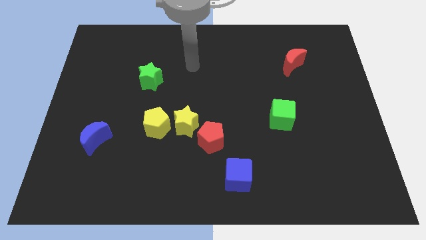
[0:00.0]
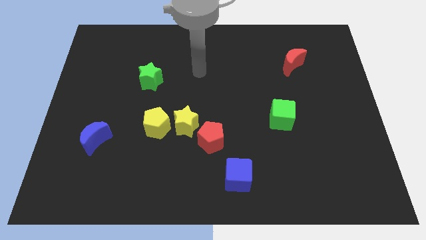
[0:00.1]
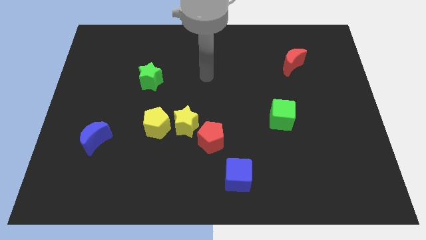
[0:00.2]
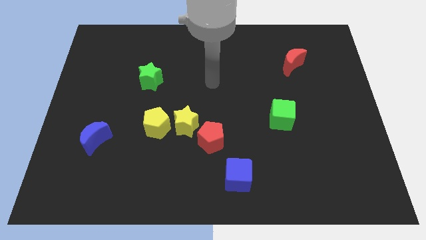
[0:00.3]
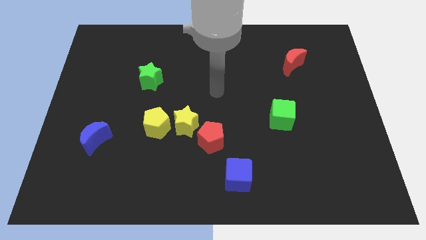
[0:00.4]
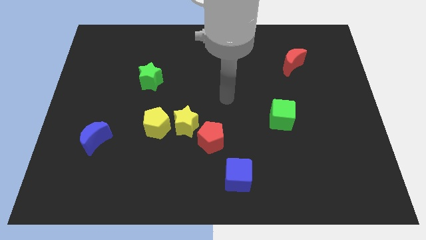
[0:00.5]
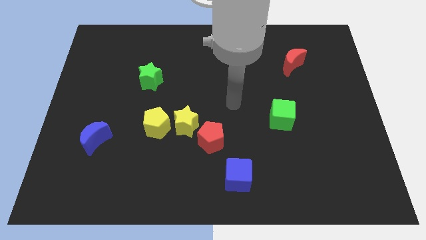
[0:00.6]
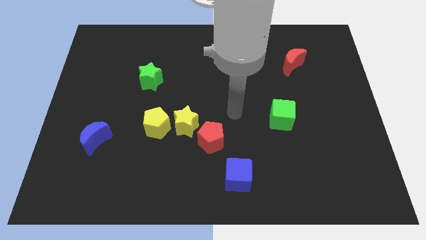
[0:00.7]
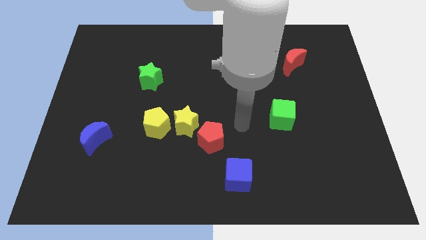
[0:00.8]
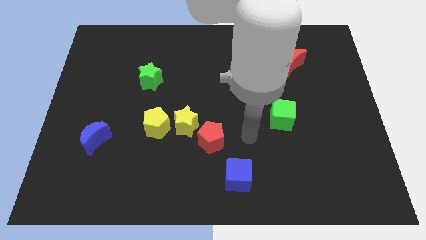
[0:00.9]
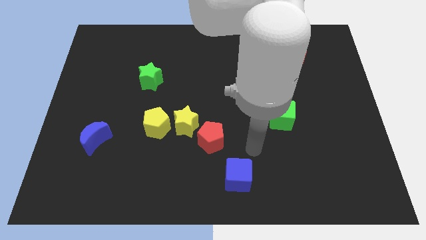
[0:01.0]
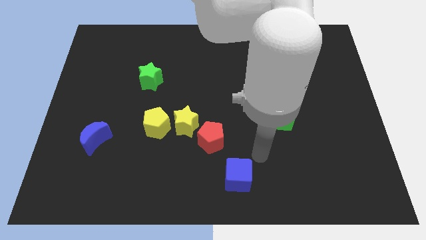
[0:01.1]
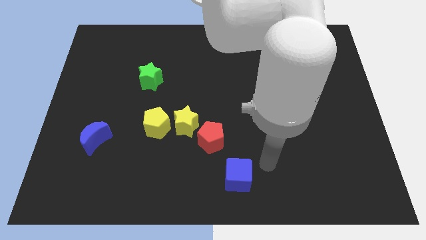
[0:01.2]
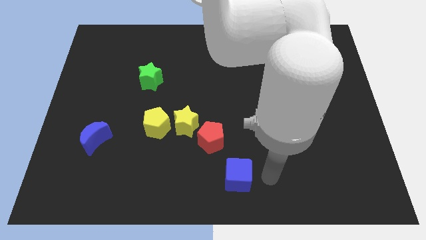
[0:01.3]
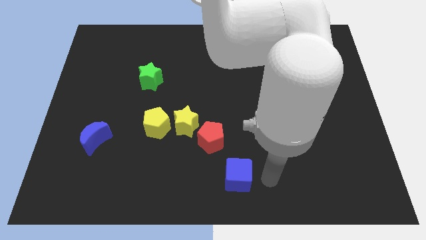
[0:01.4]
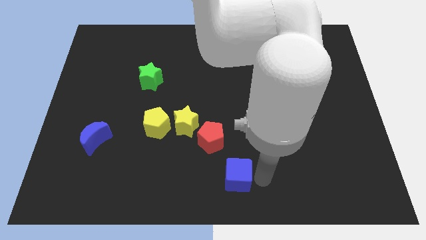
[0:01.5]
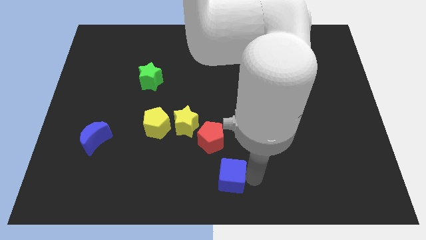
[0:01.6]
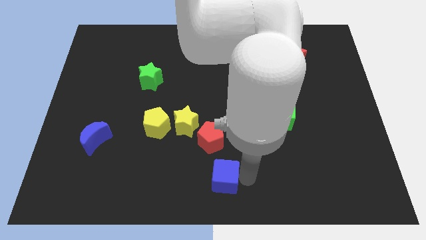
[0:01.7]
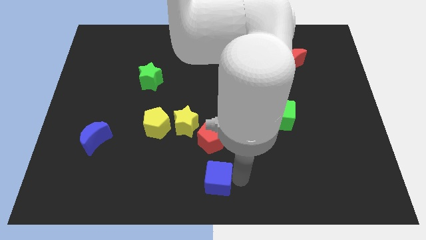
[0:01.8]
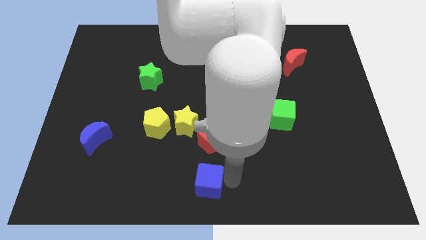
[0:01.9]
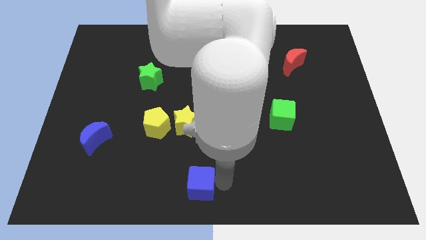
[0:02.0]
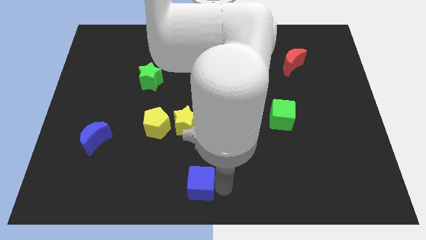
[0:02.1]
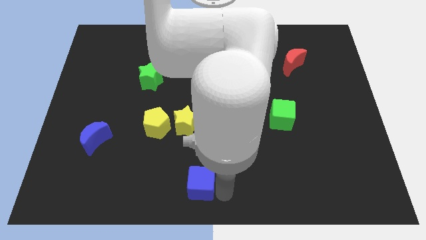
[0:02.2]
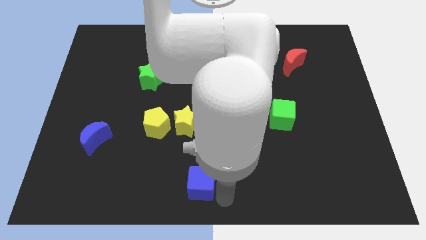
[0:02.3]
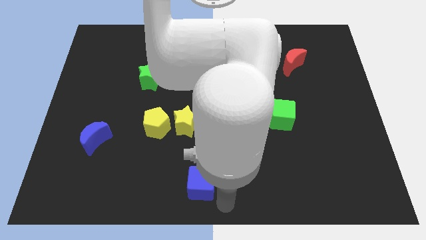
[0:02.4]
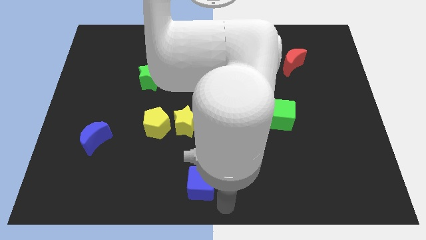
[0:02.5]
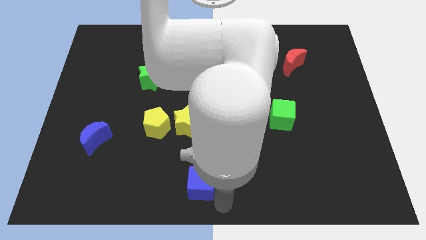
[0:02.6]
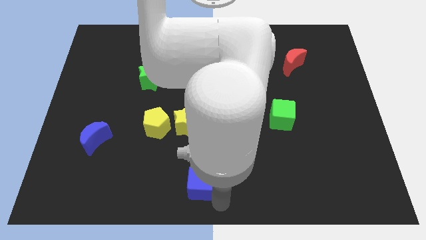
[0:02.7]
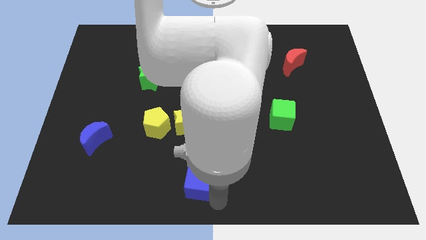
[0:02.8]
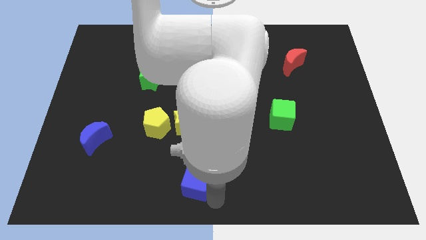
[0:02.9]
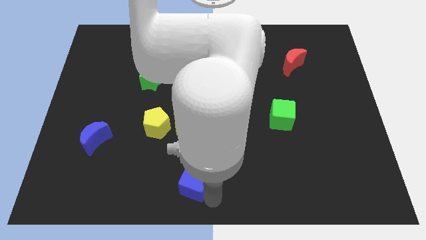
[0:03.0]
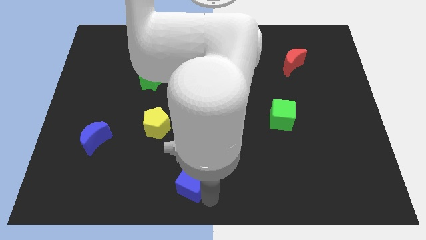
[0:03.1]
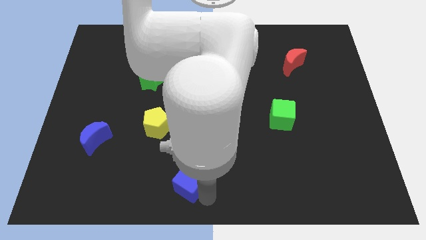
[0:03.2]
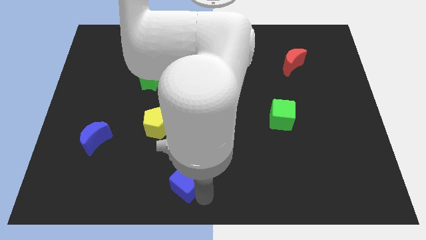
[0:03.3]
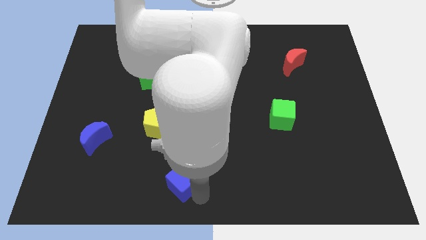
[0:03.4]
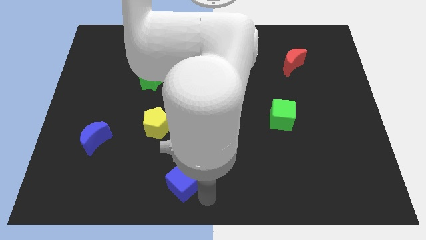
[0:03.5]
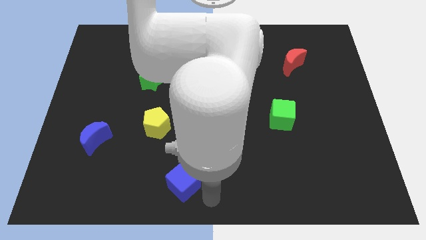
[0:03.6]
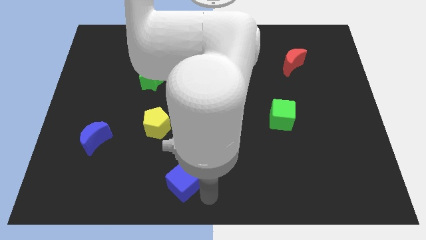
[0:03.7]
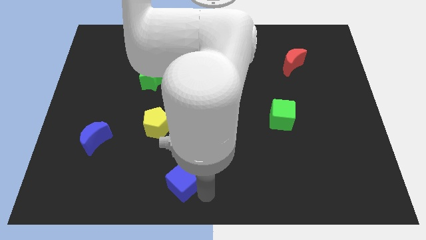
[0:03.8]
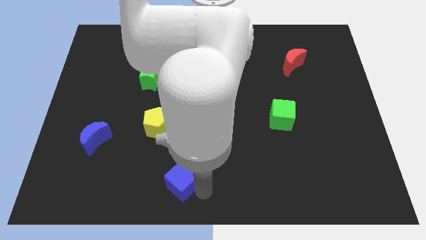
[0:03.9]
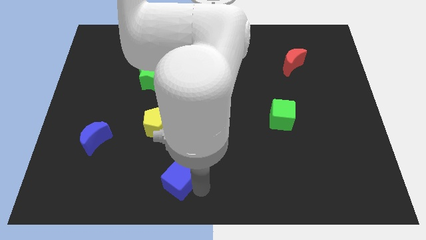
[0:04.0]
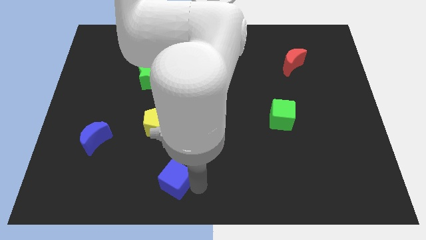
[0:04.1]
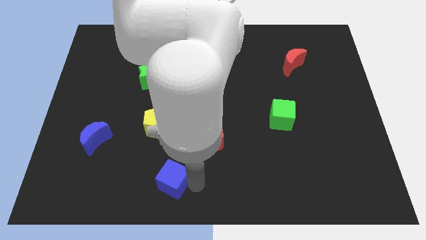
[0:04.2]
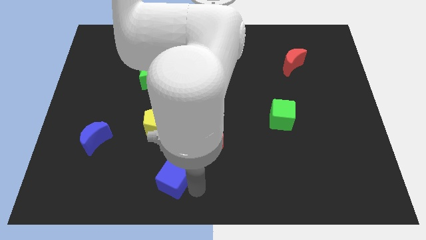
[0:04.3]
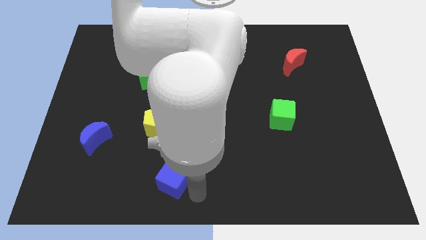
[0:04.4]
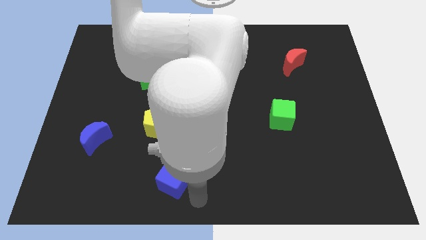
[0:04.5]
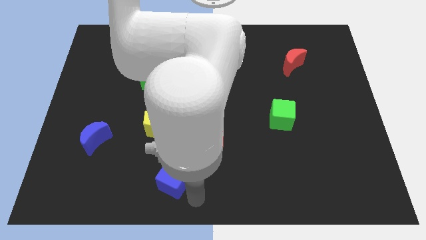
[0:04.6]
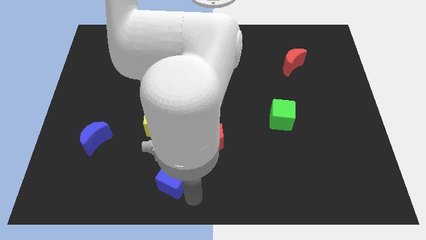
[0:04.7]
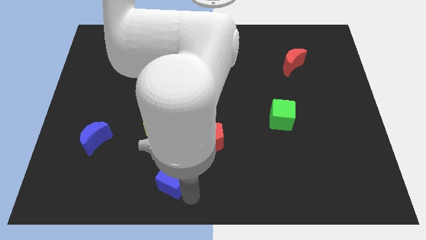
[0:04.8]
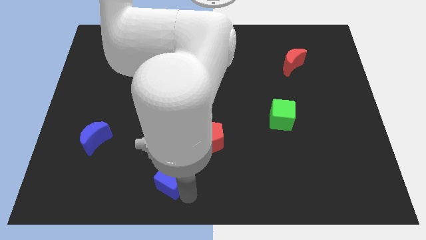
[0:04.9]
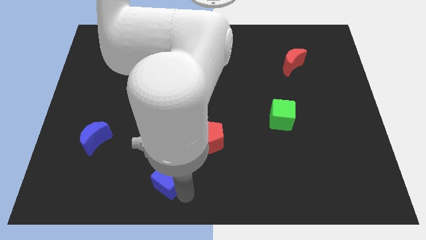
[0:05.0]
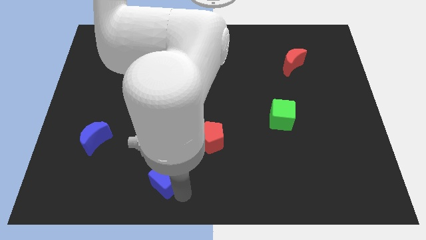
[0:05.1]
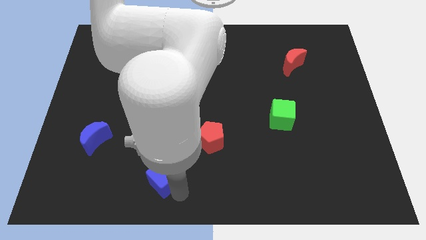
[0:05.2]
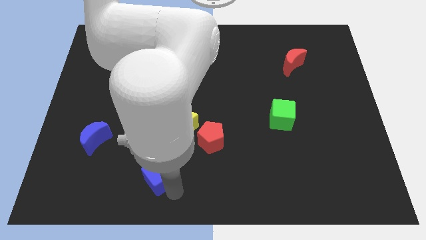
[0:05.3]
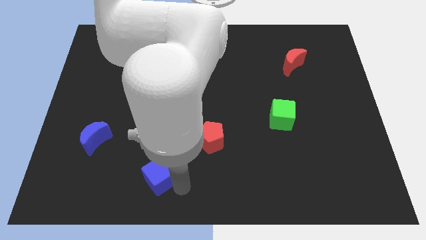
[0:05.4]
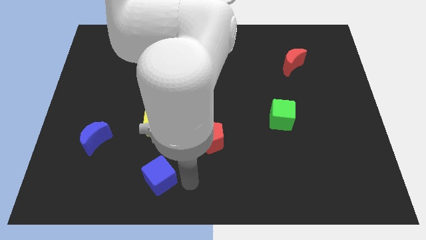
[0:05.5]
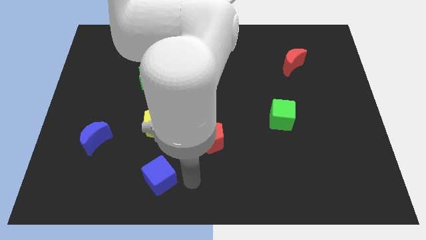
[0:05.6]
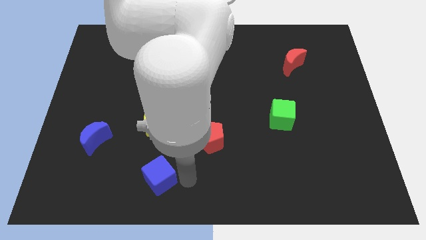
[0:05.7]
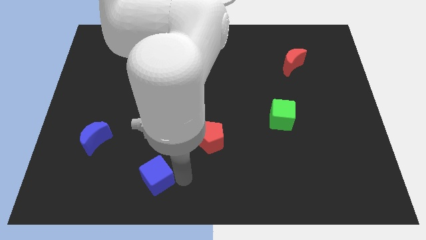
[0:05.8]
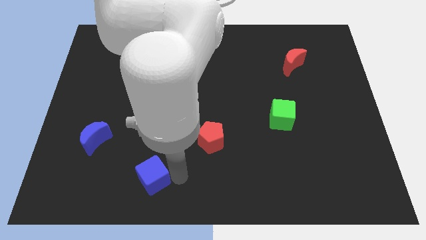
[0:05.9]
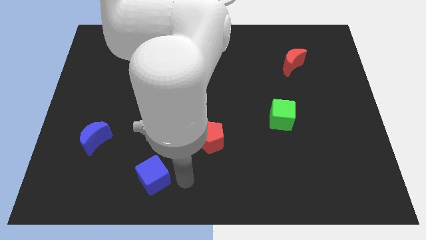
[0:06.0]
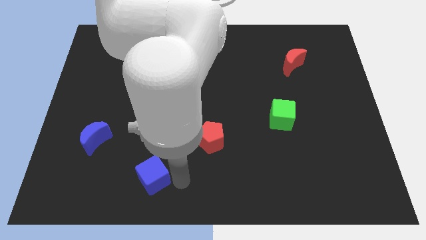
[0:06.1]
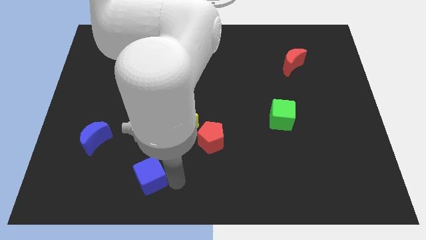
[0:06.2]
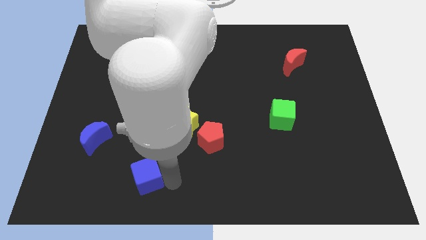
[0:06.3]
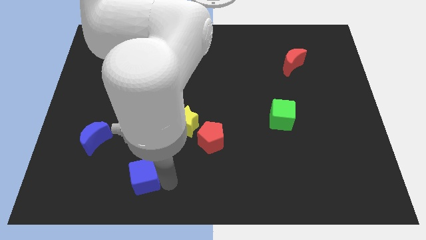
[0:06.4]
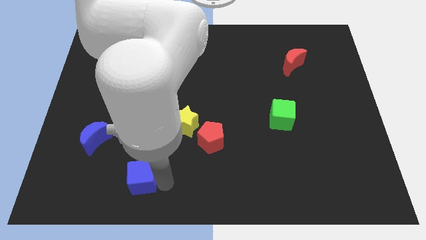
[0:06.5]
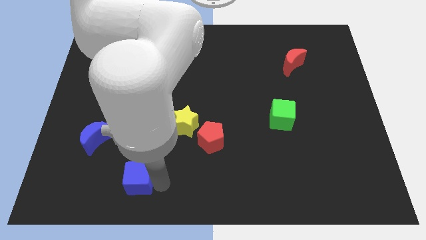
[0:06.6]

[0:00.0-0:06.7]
move the blue cube left

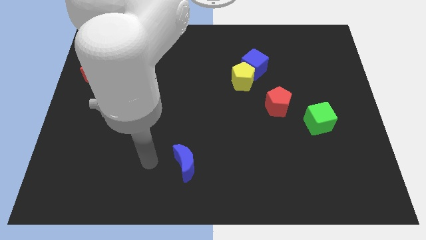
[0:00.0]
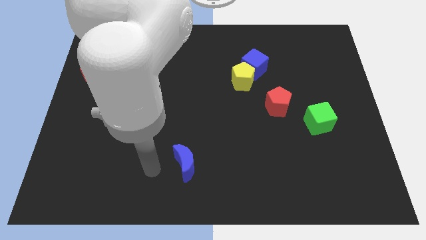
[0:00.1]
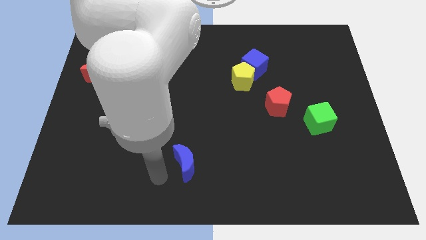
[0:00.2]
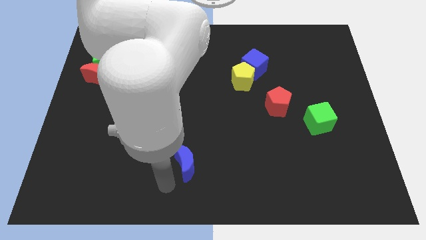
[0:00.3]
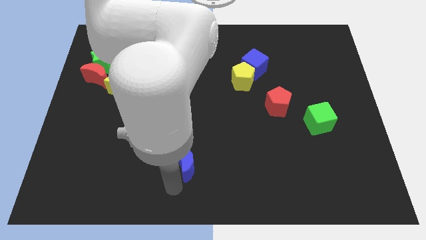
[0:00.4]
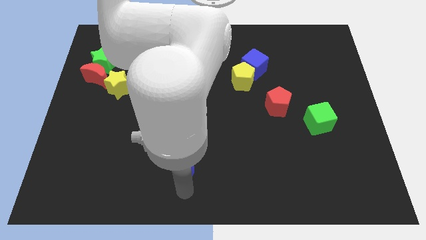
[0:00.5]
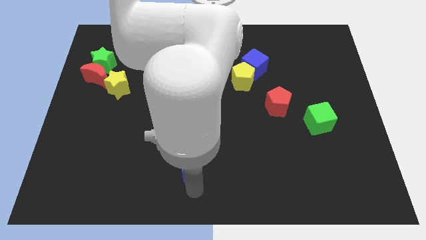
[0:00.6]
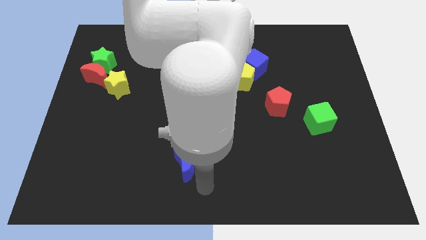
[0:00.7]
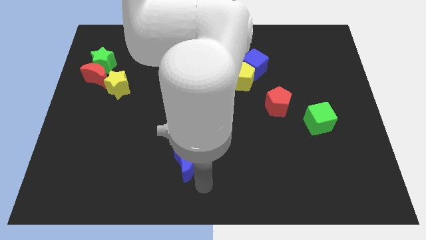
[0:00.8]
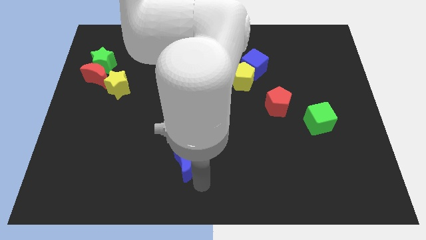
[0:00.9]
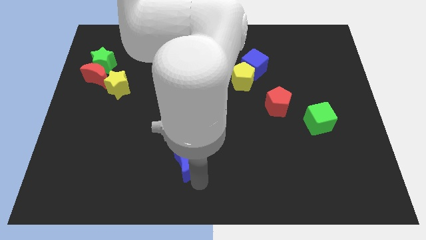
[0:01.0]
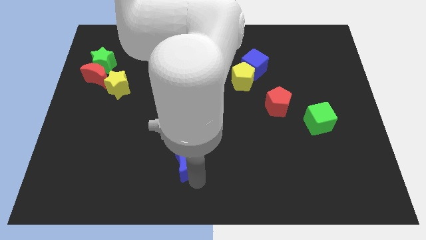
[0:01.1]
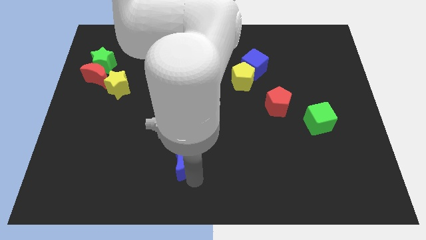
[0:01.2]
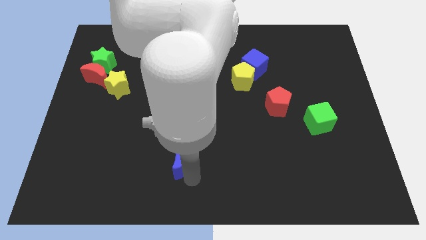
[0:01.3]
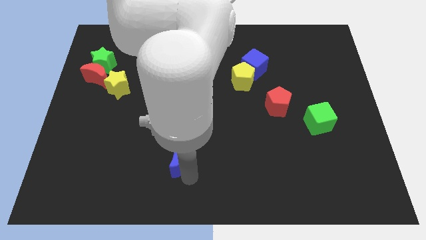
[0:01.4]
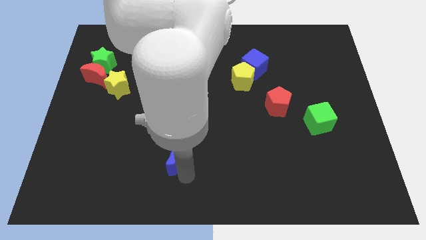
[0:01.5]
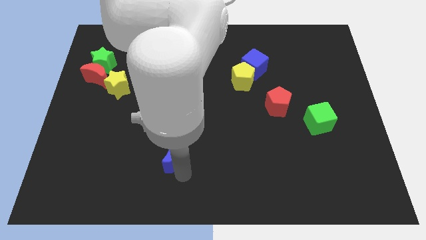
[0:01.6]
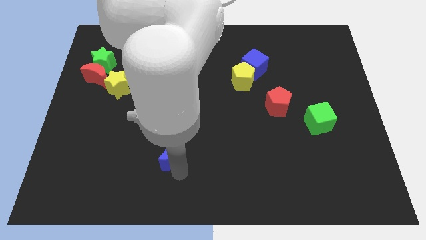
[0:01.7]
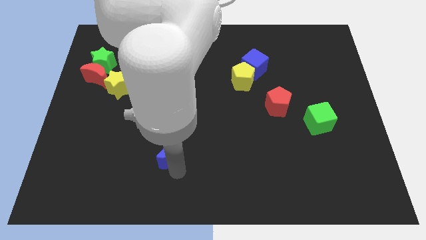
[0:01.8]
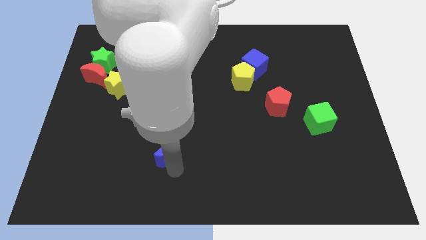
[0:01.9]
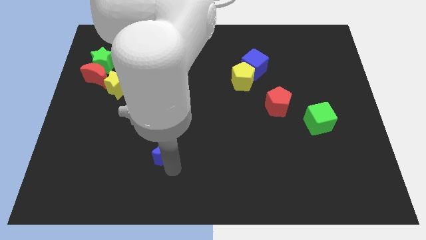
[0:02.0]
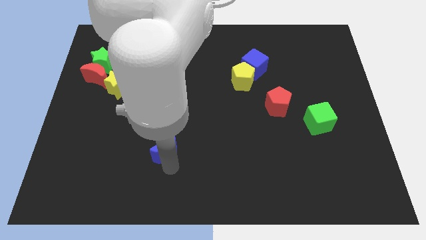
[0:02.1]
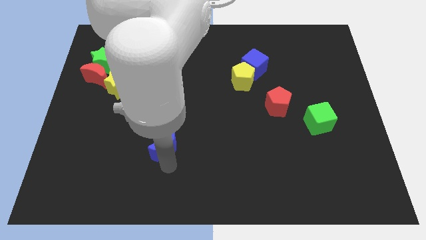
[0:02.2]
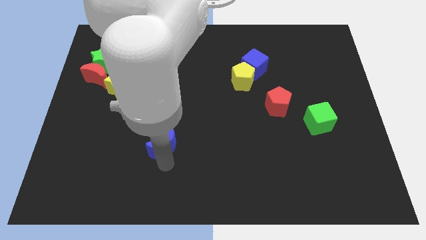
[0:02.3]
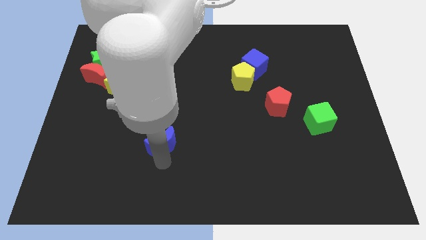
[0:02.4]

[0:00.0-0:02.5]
move the blue moon upwards and then to the left somewhat
